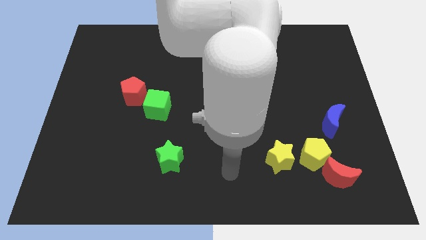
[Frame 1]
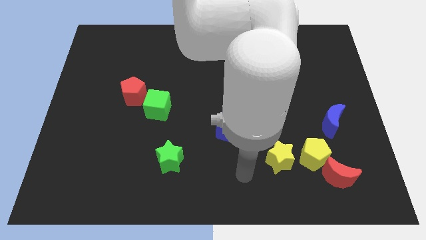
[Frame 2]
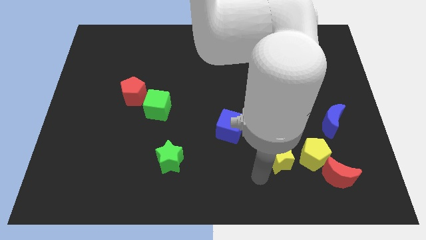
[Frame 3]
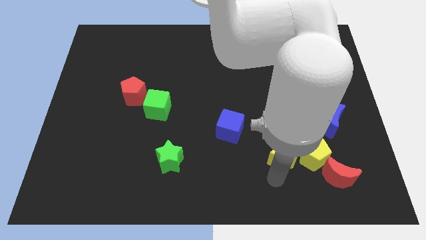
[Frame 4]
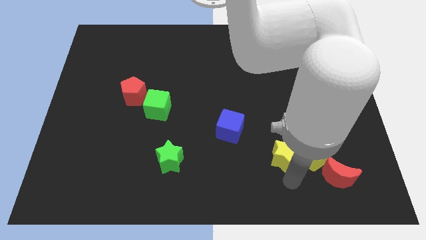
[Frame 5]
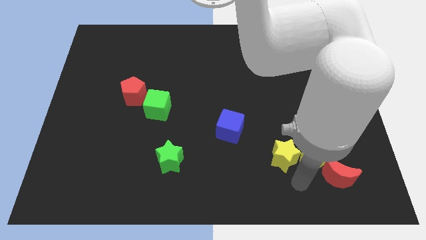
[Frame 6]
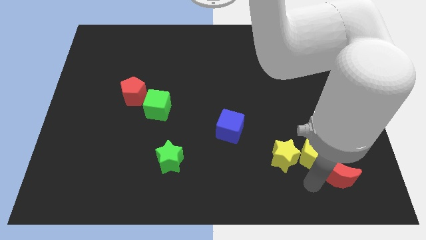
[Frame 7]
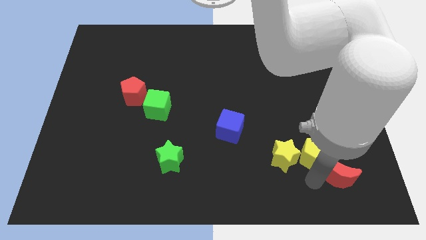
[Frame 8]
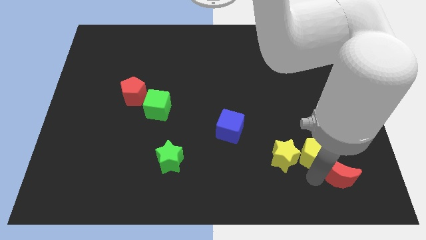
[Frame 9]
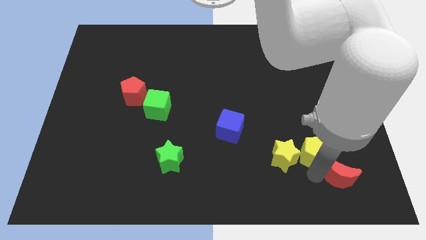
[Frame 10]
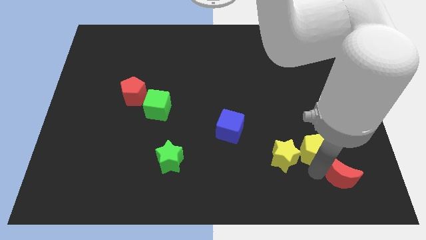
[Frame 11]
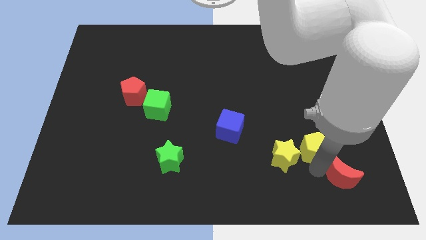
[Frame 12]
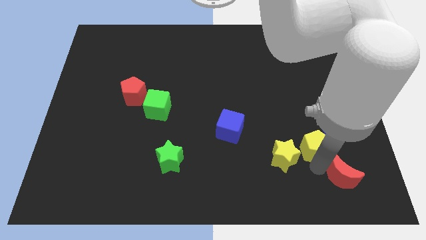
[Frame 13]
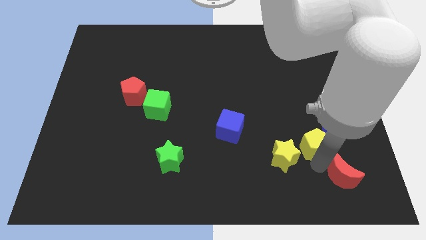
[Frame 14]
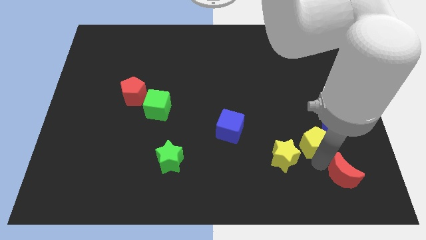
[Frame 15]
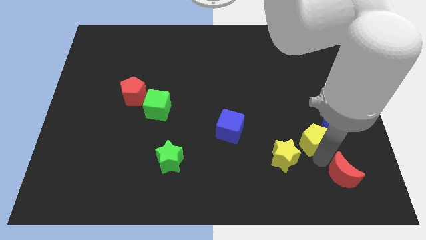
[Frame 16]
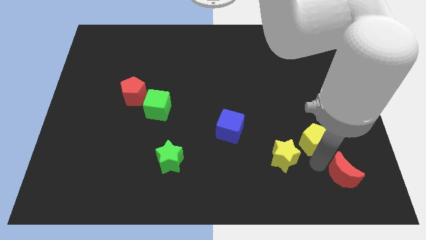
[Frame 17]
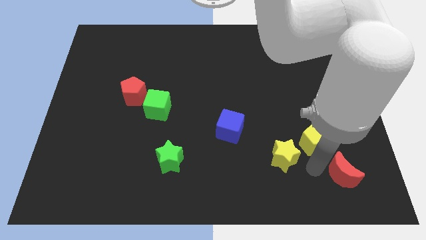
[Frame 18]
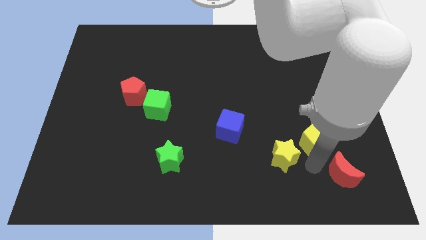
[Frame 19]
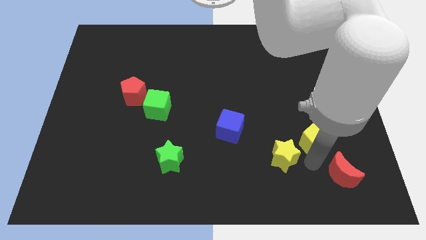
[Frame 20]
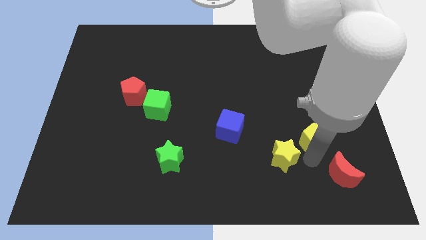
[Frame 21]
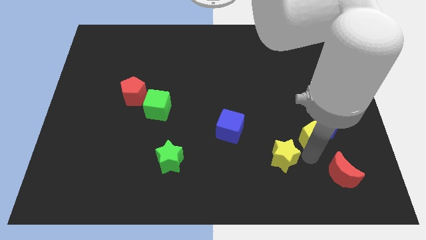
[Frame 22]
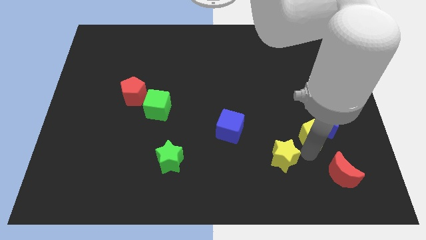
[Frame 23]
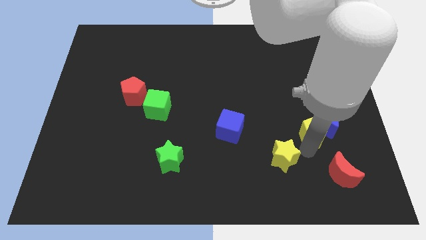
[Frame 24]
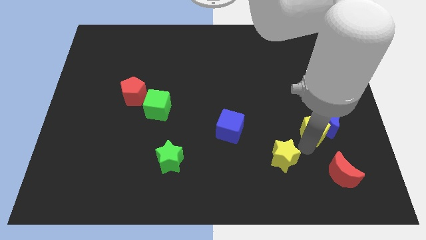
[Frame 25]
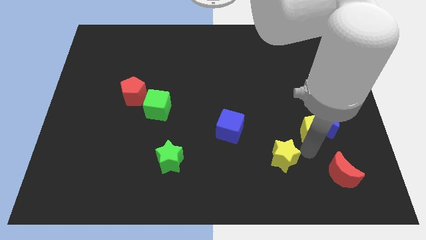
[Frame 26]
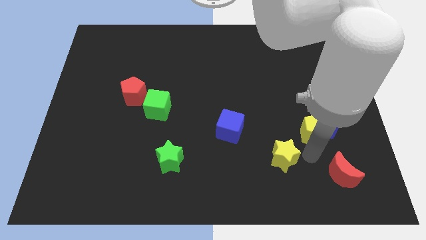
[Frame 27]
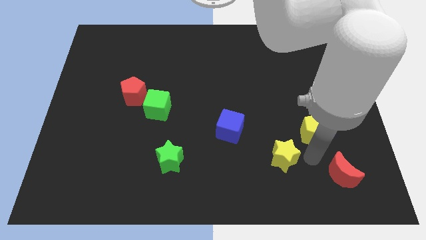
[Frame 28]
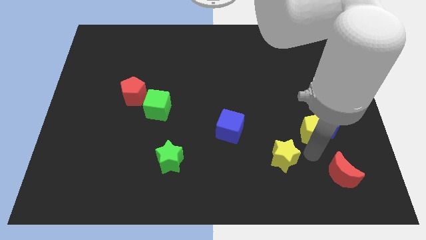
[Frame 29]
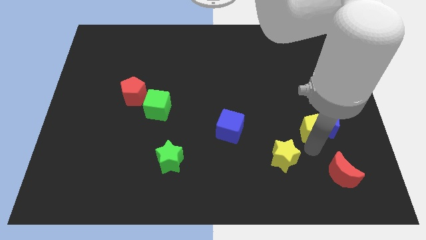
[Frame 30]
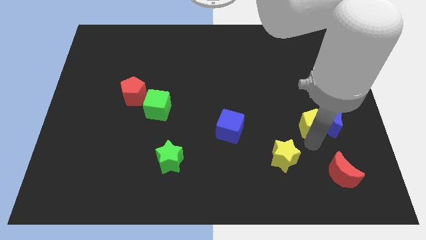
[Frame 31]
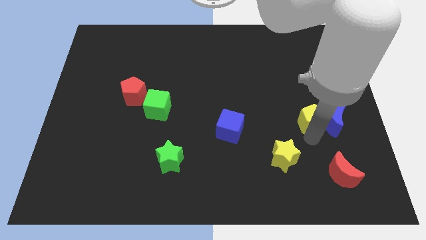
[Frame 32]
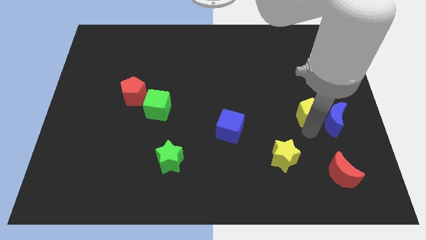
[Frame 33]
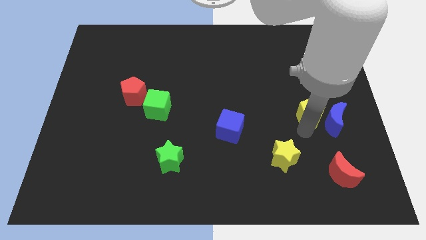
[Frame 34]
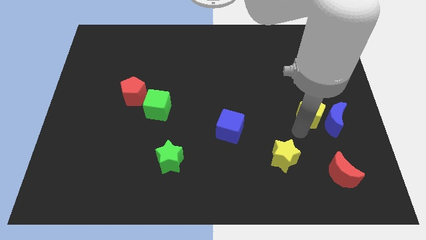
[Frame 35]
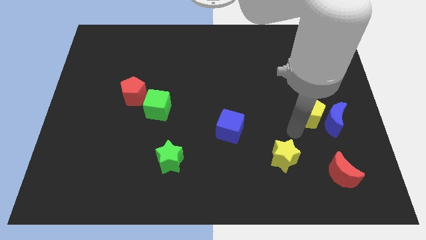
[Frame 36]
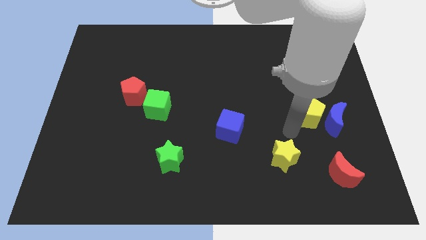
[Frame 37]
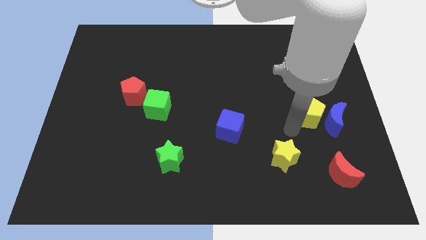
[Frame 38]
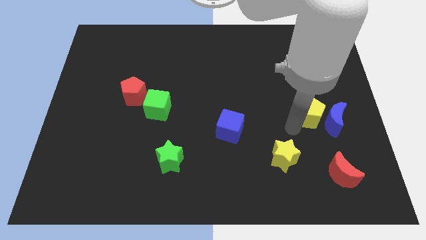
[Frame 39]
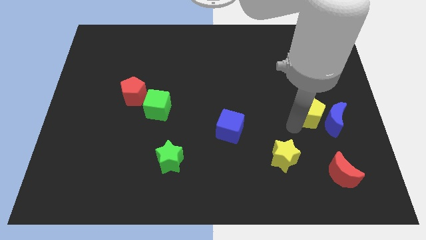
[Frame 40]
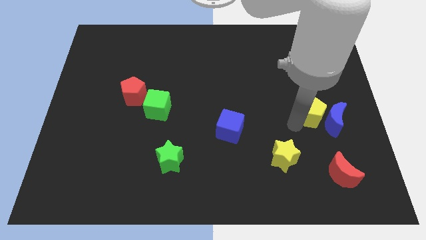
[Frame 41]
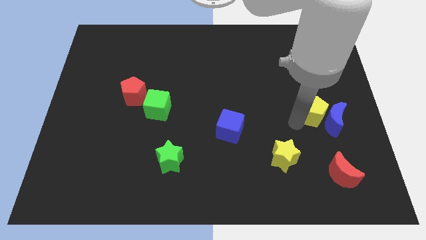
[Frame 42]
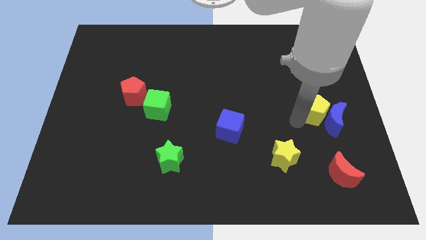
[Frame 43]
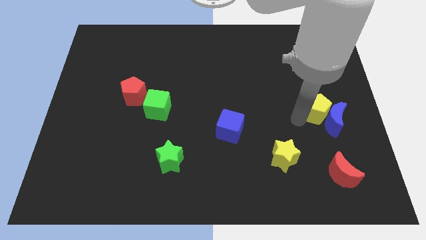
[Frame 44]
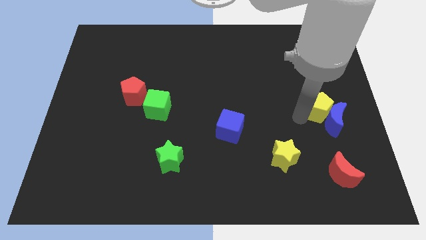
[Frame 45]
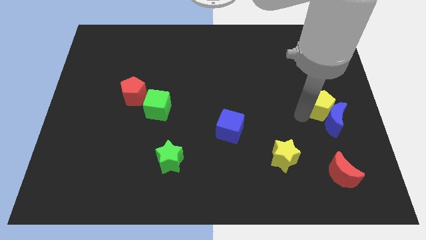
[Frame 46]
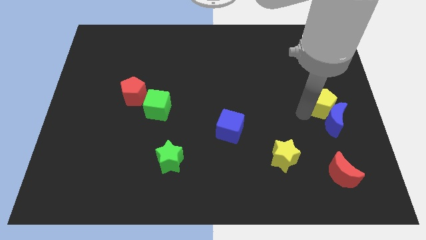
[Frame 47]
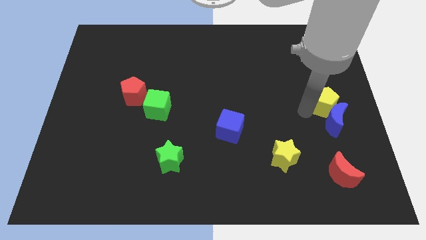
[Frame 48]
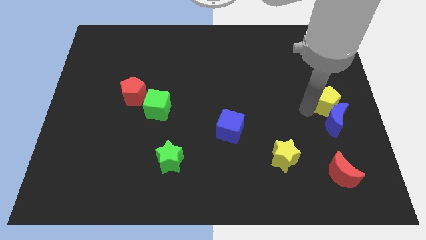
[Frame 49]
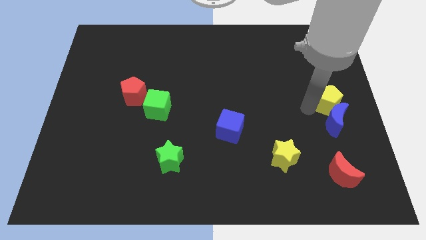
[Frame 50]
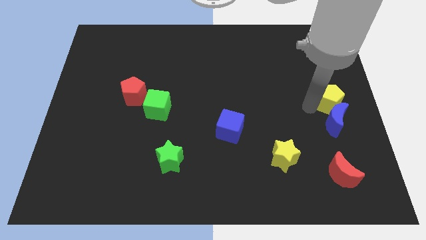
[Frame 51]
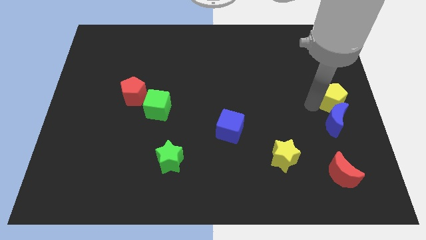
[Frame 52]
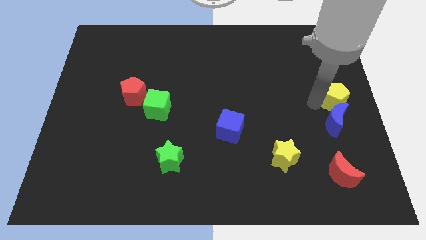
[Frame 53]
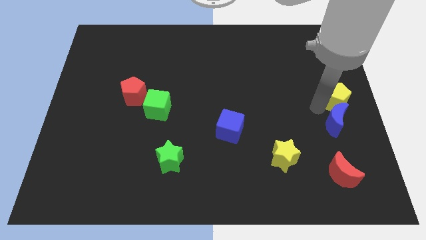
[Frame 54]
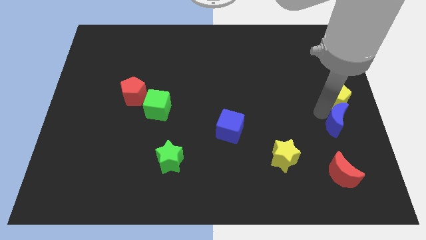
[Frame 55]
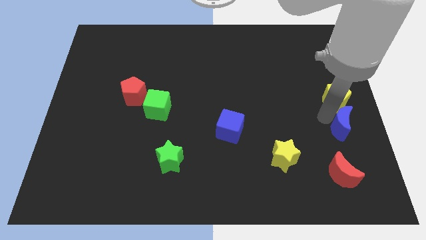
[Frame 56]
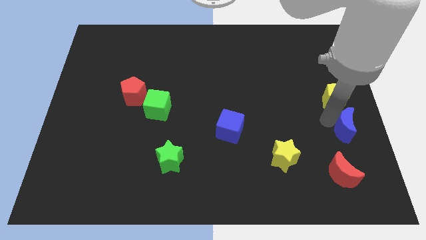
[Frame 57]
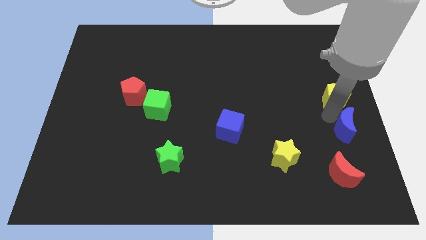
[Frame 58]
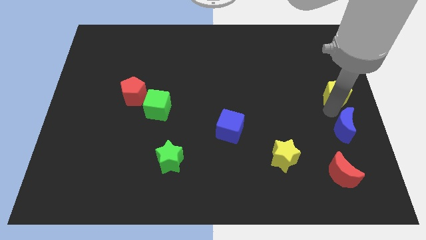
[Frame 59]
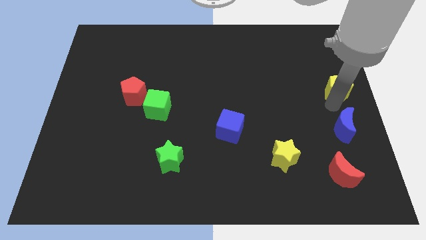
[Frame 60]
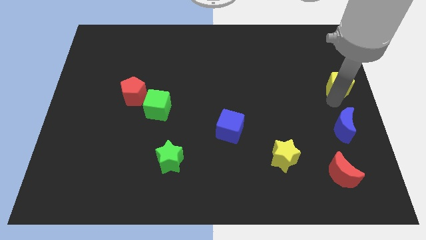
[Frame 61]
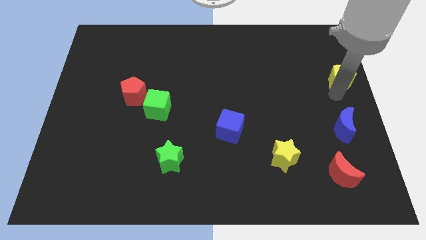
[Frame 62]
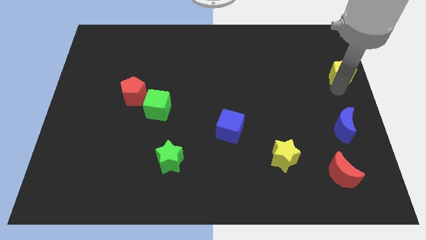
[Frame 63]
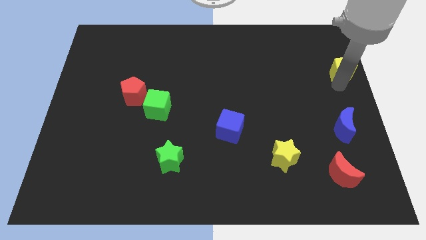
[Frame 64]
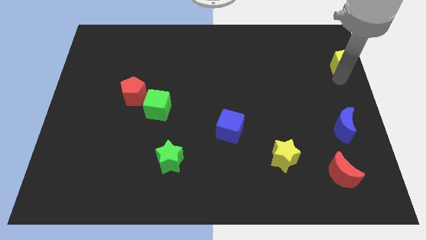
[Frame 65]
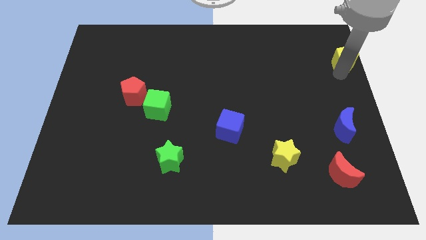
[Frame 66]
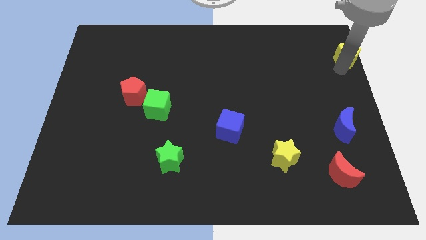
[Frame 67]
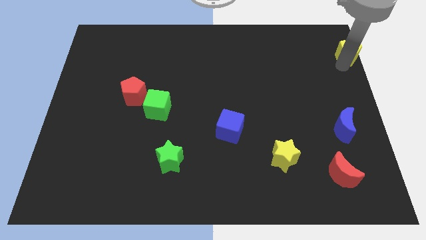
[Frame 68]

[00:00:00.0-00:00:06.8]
move the yellow pentagon to the top right corner
